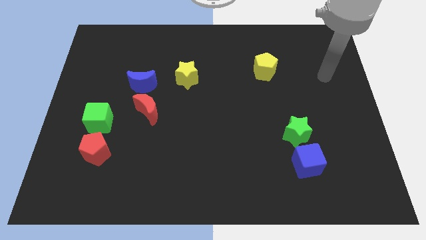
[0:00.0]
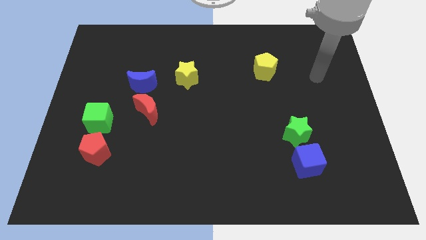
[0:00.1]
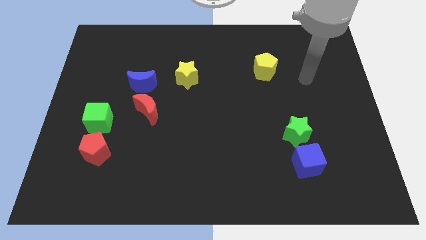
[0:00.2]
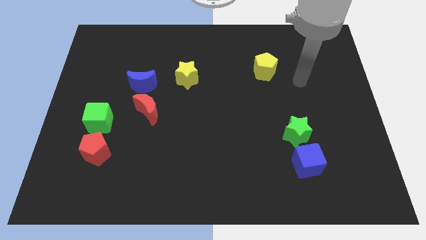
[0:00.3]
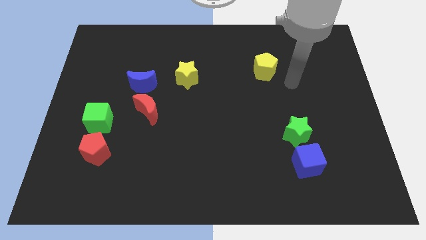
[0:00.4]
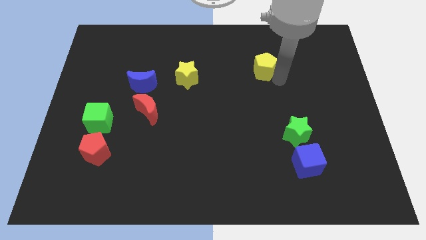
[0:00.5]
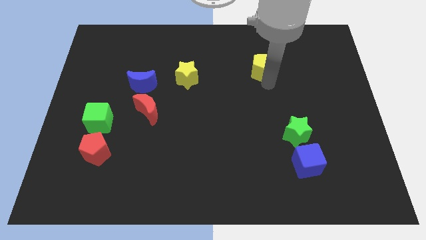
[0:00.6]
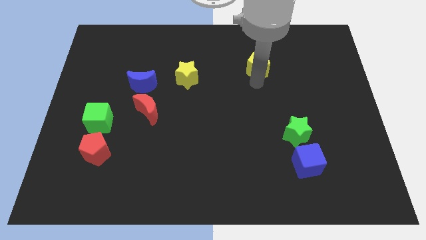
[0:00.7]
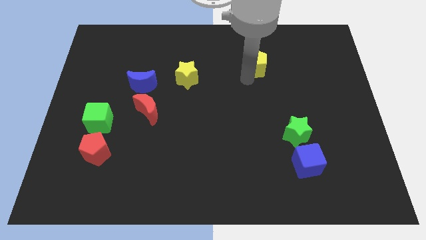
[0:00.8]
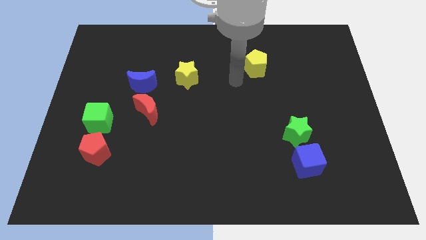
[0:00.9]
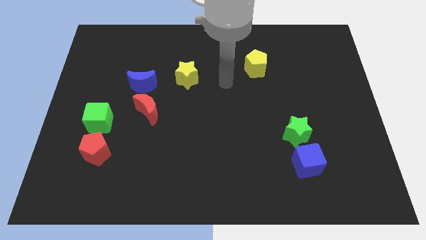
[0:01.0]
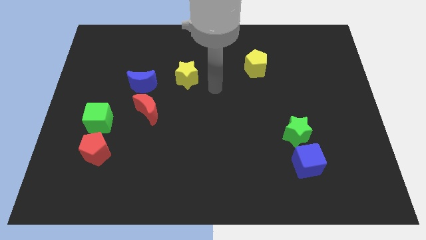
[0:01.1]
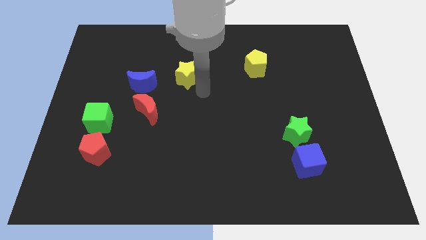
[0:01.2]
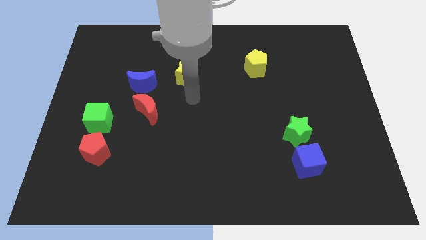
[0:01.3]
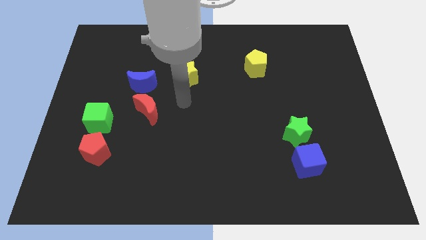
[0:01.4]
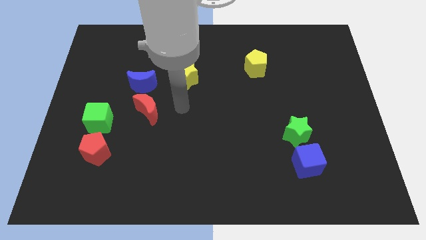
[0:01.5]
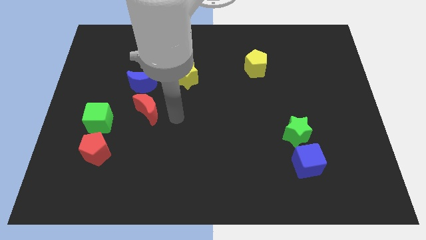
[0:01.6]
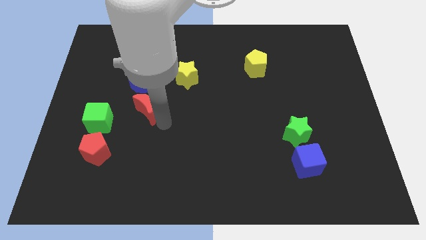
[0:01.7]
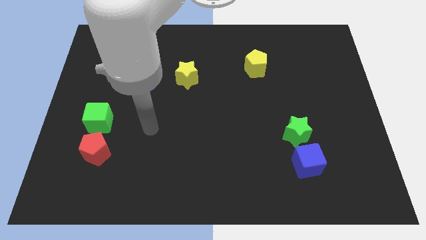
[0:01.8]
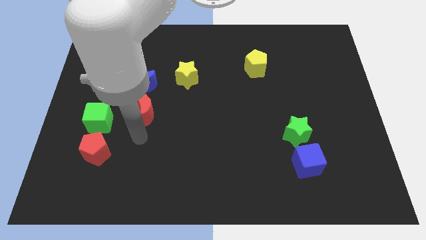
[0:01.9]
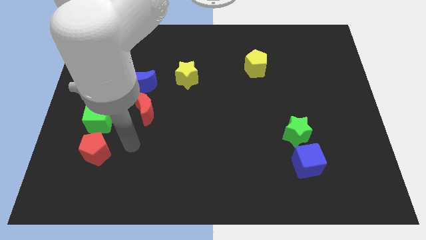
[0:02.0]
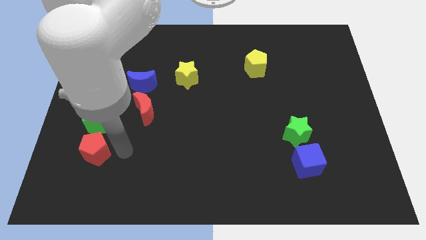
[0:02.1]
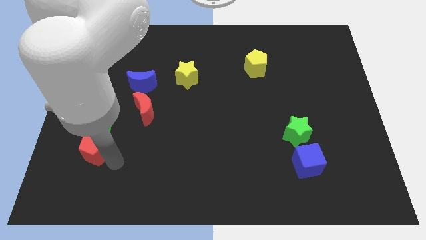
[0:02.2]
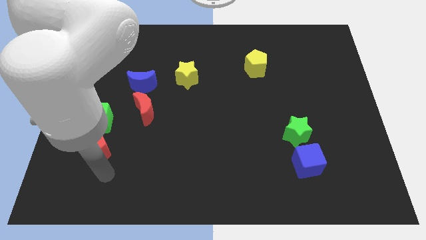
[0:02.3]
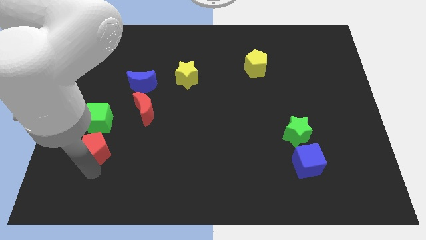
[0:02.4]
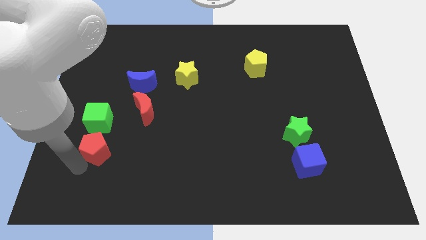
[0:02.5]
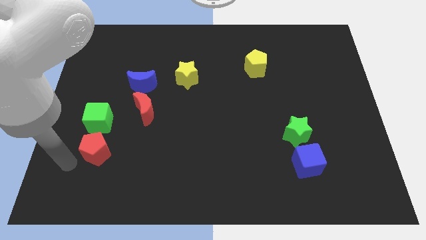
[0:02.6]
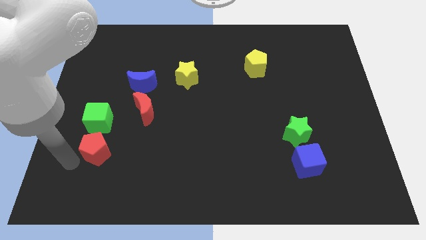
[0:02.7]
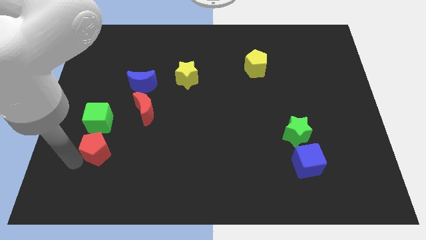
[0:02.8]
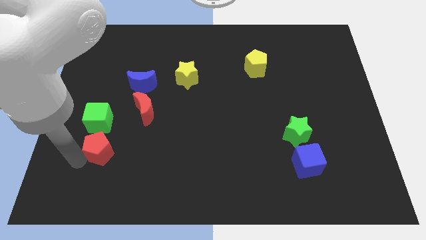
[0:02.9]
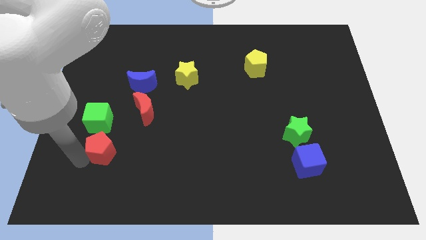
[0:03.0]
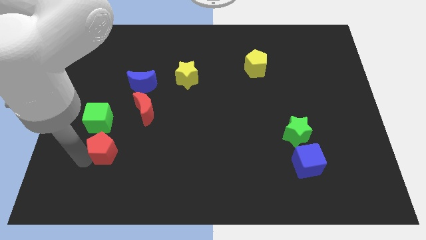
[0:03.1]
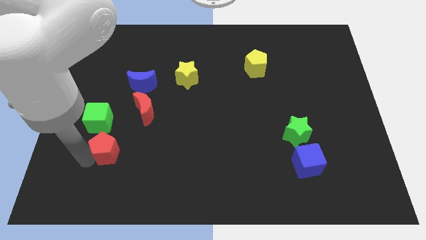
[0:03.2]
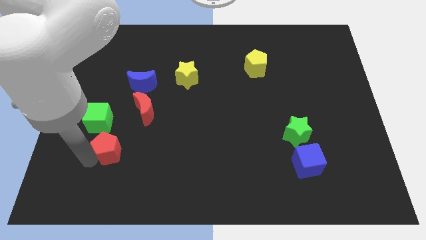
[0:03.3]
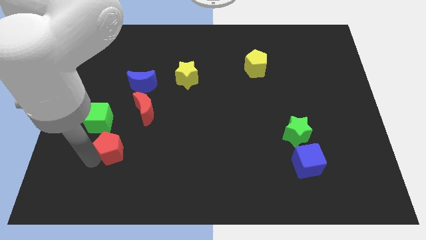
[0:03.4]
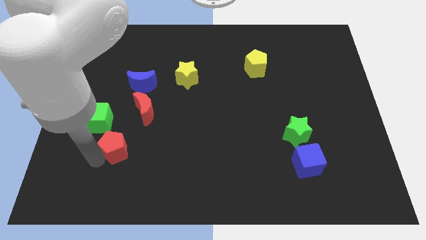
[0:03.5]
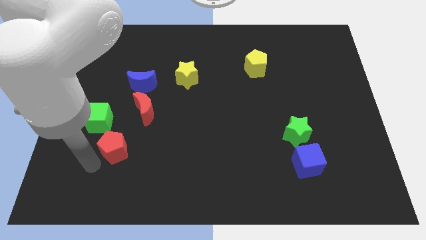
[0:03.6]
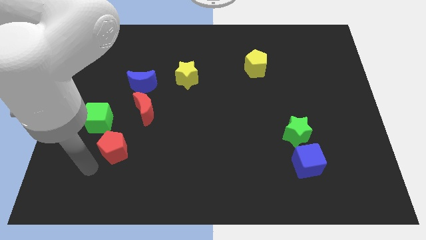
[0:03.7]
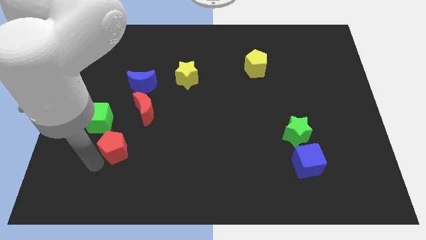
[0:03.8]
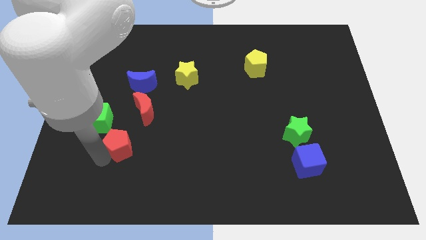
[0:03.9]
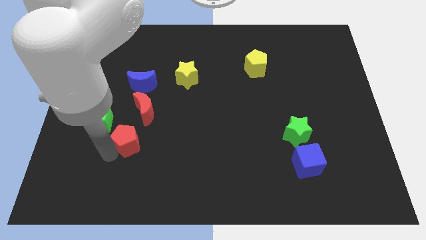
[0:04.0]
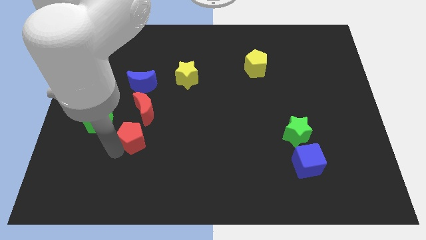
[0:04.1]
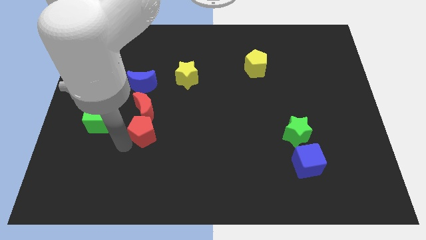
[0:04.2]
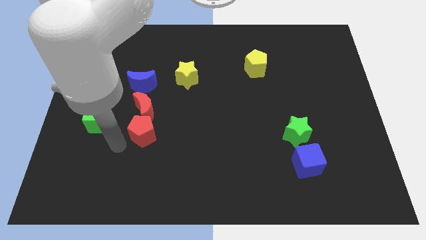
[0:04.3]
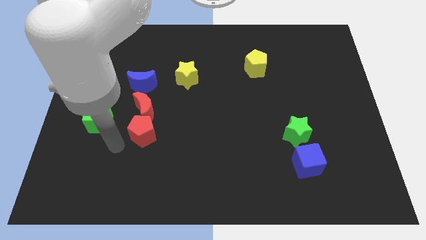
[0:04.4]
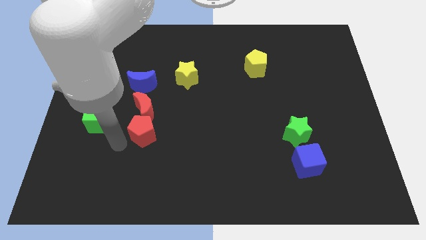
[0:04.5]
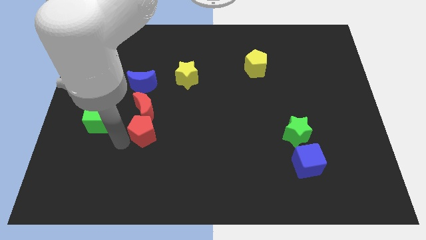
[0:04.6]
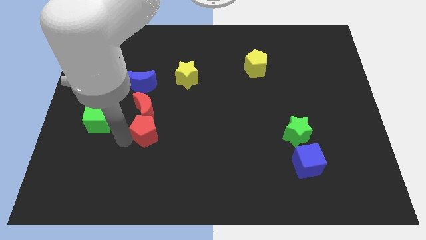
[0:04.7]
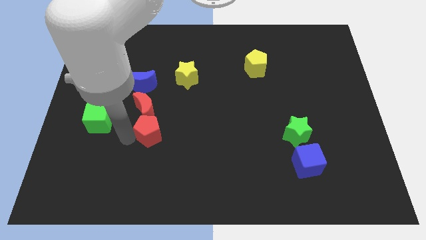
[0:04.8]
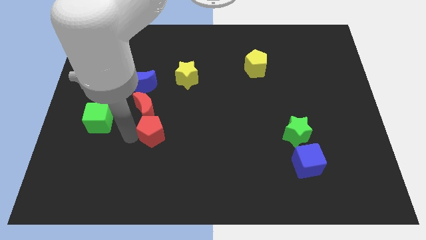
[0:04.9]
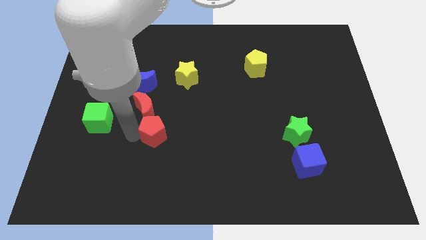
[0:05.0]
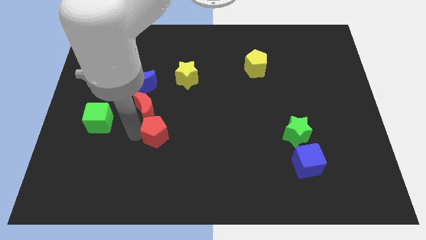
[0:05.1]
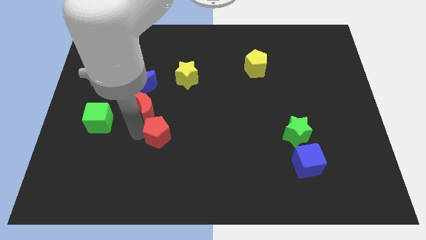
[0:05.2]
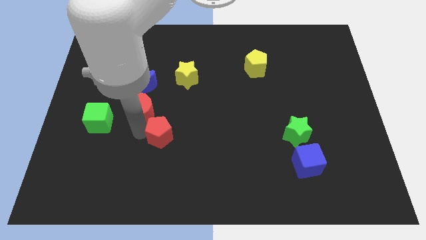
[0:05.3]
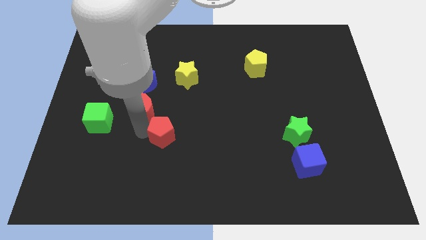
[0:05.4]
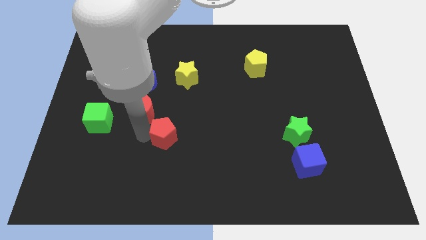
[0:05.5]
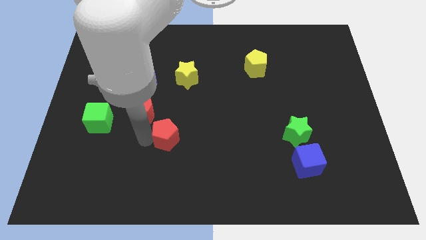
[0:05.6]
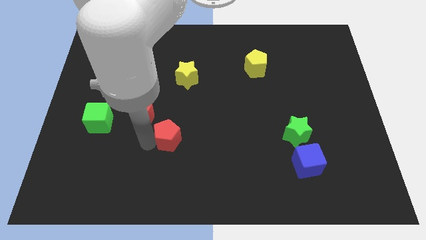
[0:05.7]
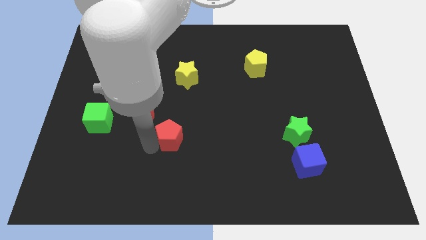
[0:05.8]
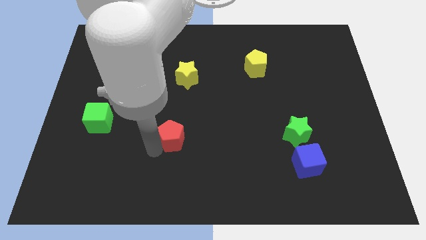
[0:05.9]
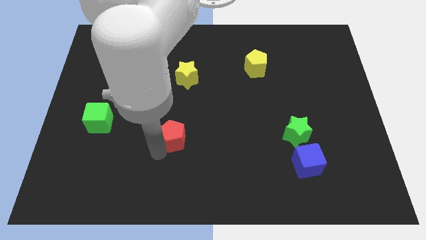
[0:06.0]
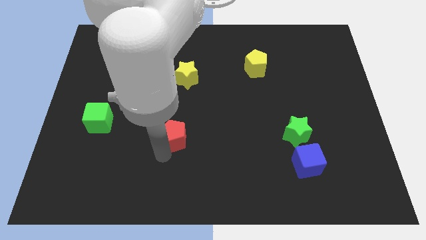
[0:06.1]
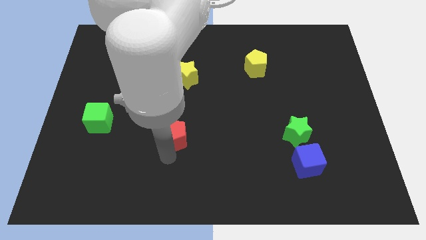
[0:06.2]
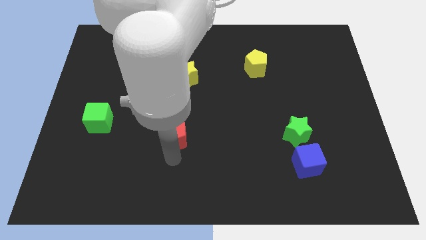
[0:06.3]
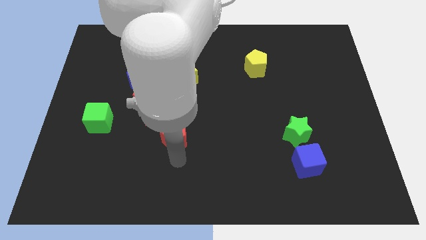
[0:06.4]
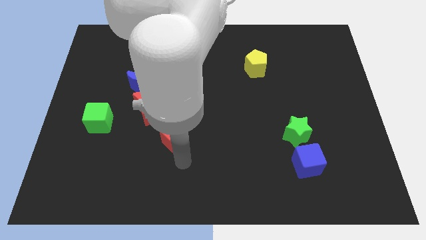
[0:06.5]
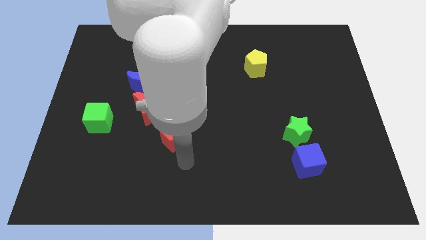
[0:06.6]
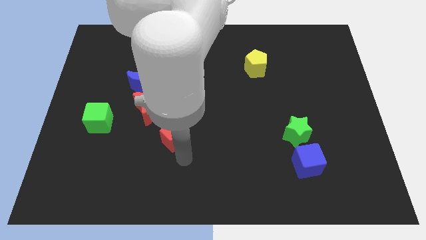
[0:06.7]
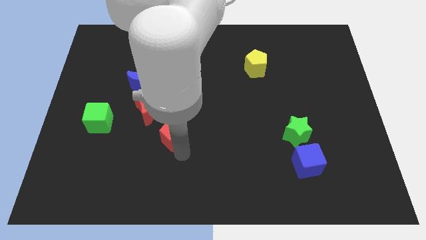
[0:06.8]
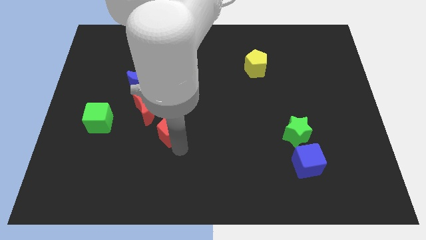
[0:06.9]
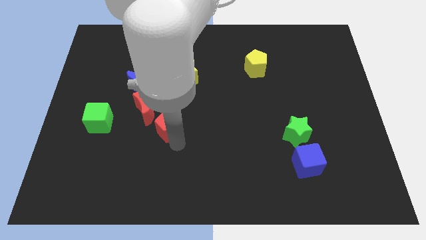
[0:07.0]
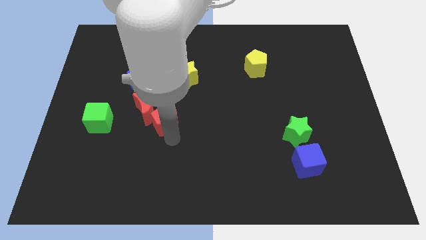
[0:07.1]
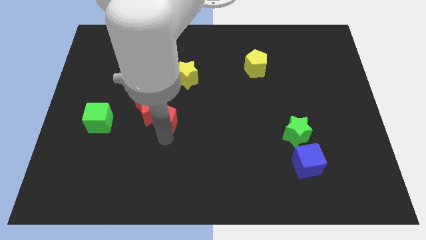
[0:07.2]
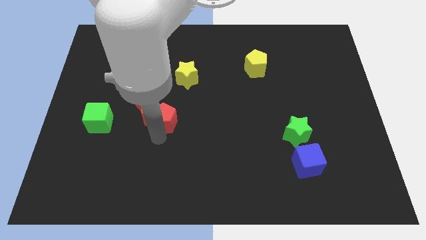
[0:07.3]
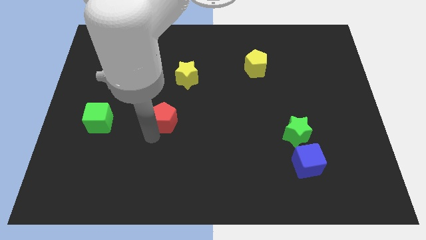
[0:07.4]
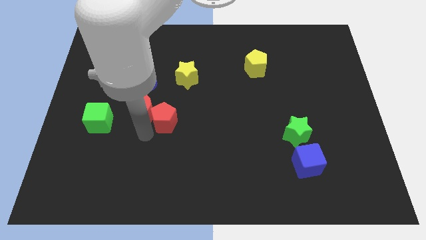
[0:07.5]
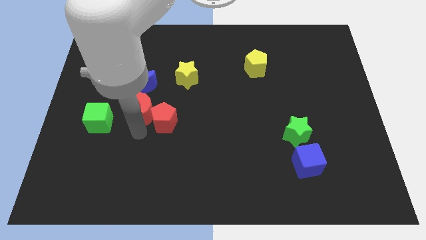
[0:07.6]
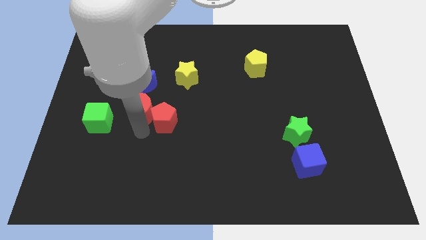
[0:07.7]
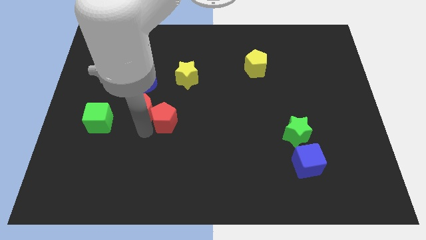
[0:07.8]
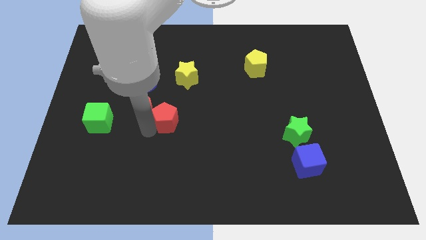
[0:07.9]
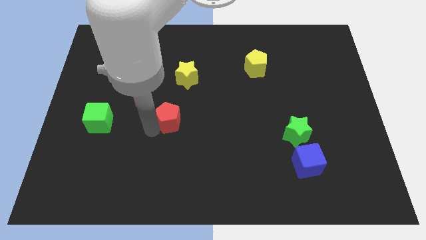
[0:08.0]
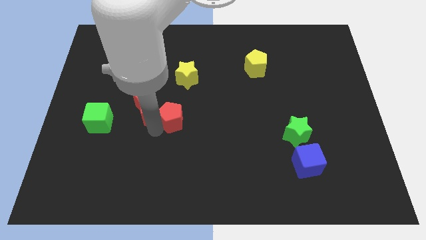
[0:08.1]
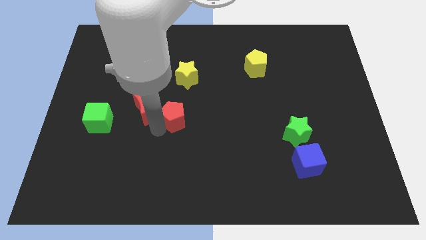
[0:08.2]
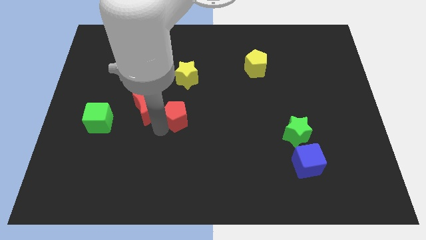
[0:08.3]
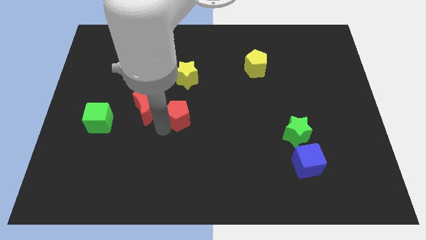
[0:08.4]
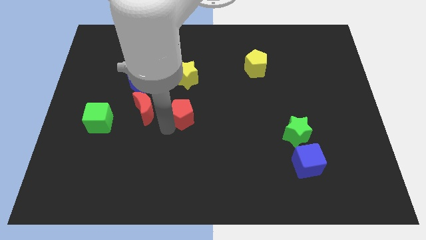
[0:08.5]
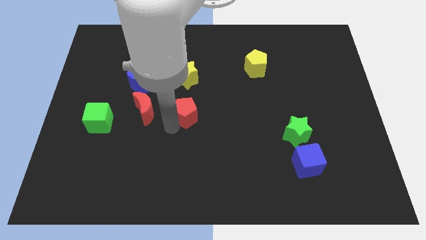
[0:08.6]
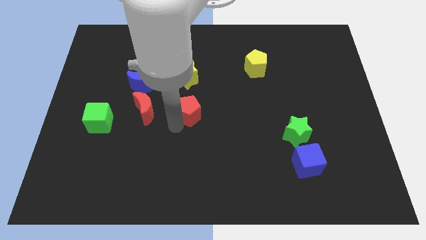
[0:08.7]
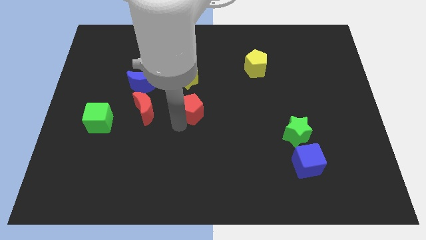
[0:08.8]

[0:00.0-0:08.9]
push the red pentagon up and right diagonally
